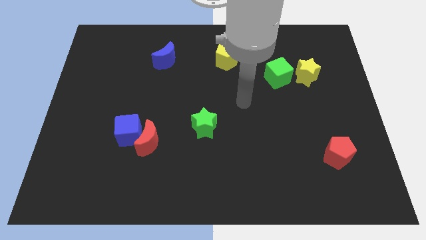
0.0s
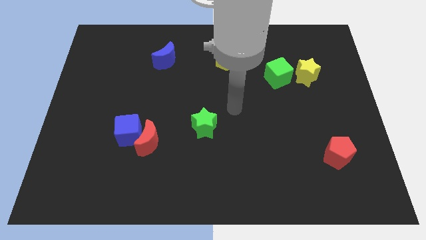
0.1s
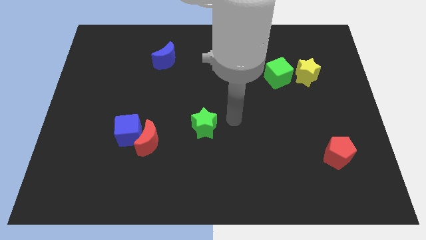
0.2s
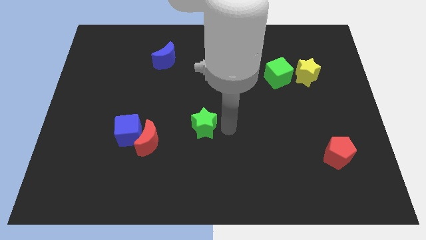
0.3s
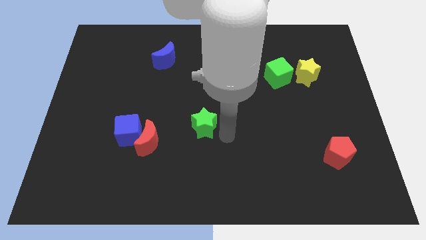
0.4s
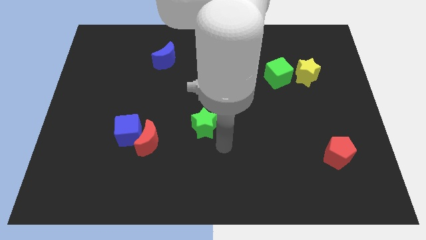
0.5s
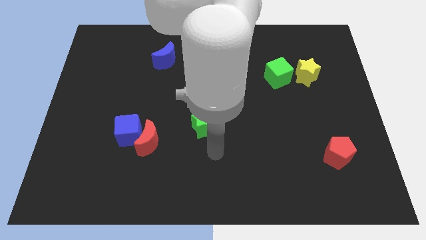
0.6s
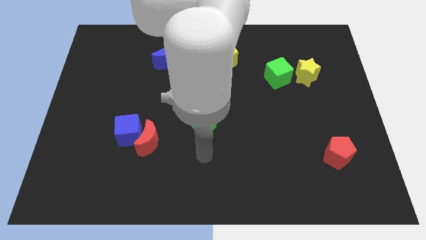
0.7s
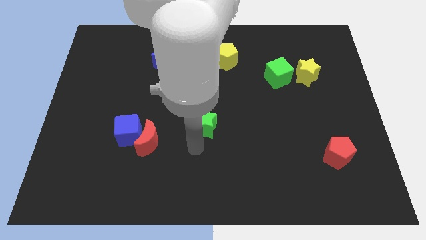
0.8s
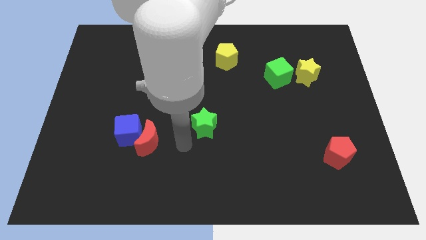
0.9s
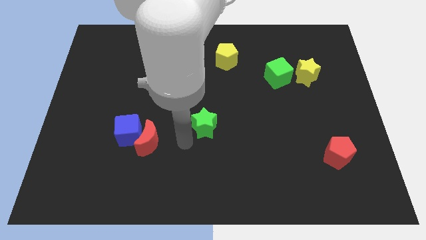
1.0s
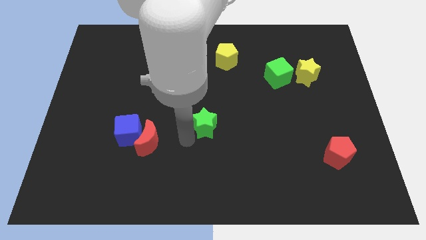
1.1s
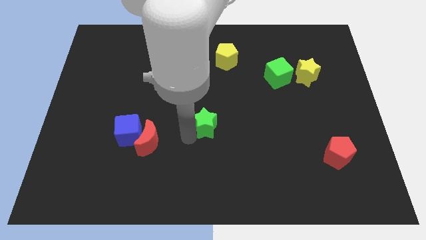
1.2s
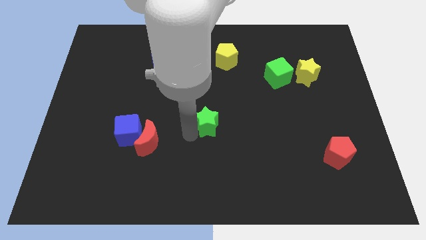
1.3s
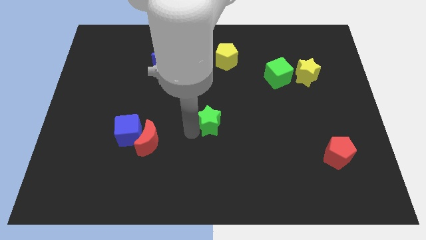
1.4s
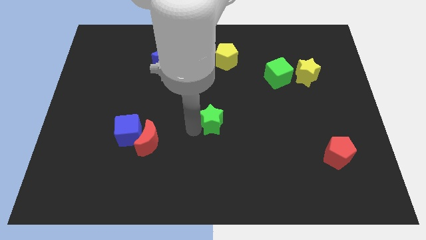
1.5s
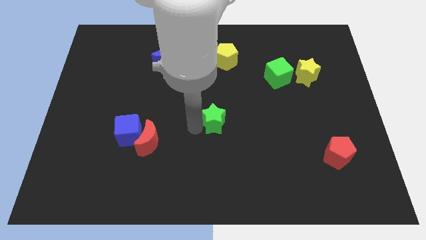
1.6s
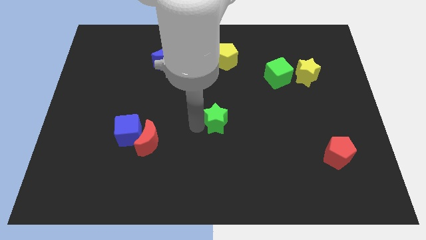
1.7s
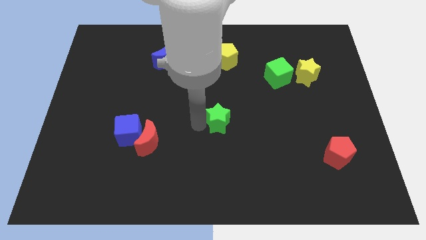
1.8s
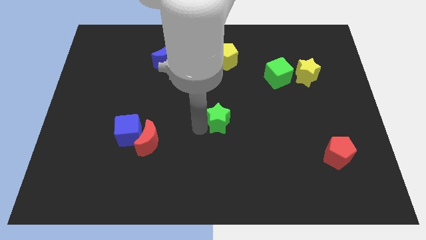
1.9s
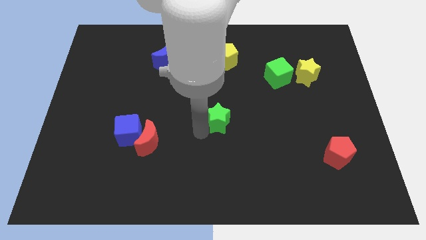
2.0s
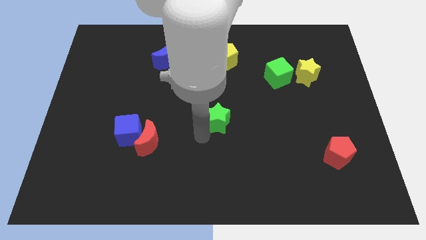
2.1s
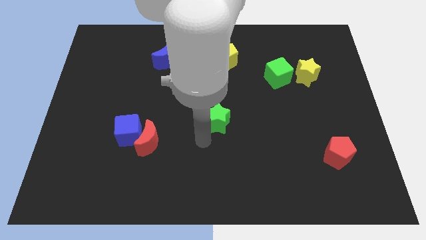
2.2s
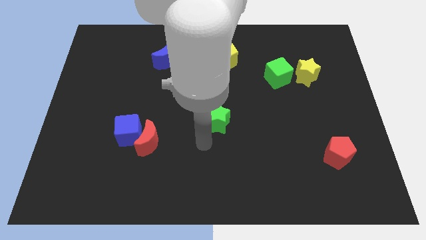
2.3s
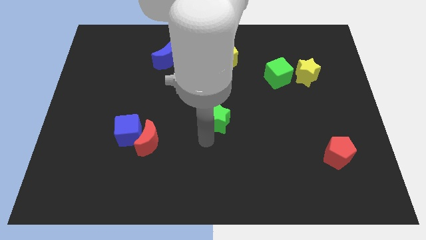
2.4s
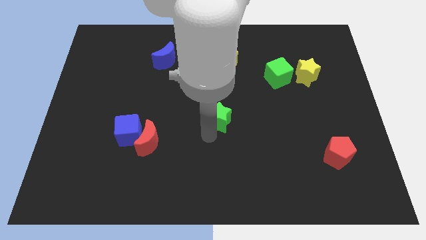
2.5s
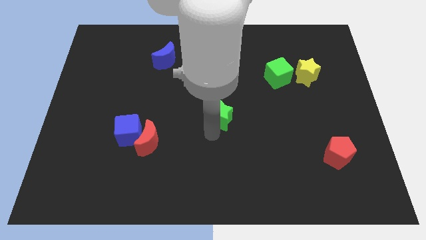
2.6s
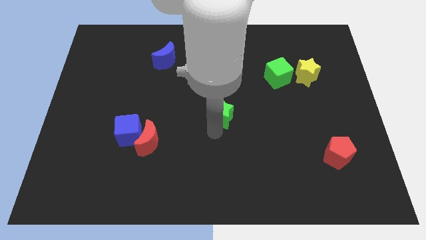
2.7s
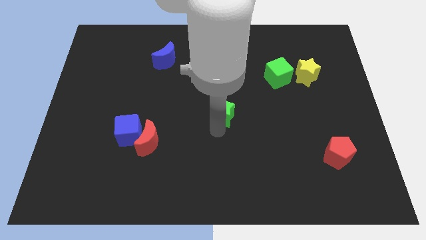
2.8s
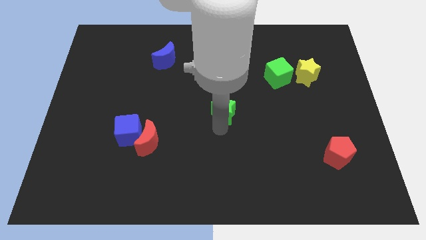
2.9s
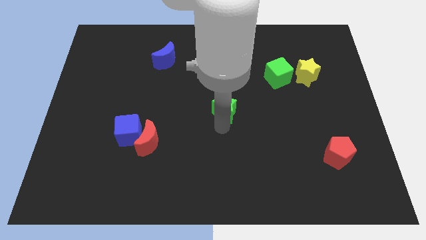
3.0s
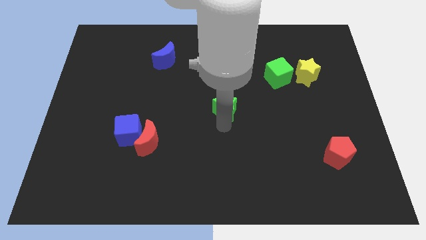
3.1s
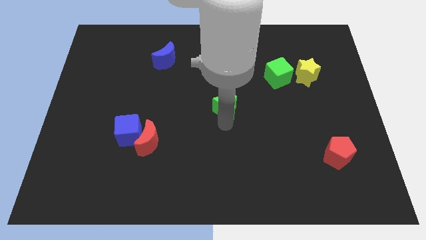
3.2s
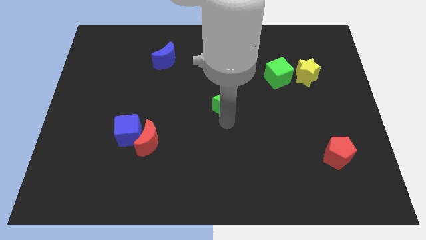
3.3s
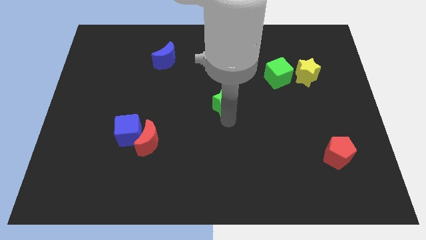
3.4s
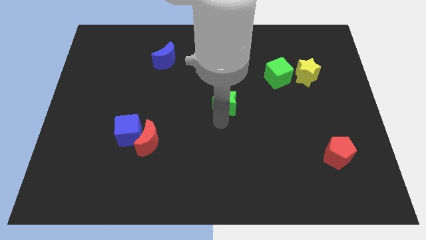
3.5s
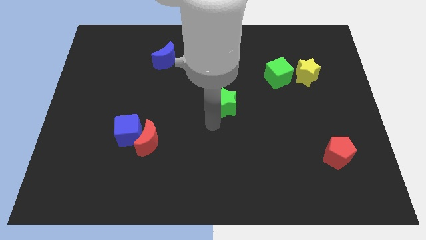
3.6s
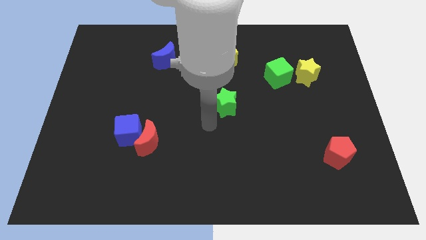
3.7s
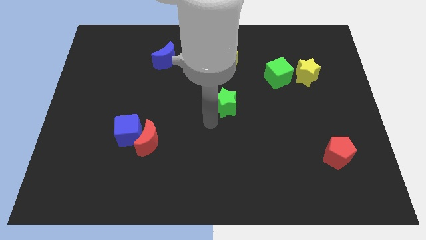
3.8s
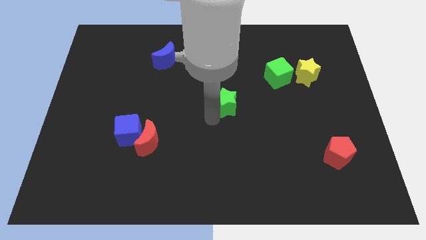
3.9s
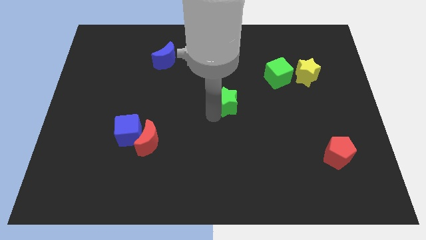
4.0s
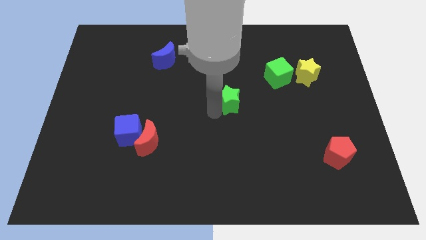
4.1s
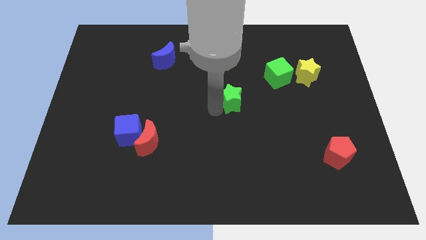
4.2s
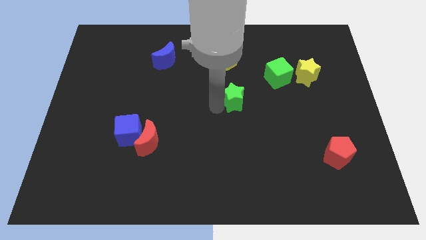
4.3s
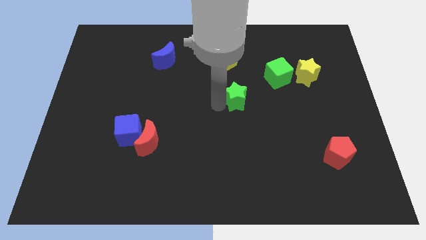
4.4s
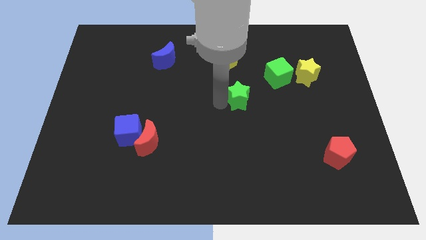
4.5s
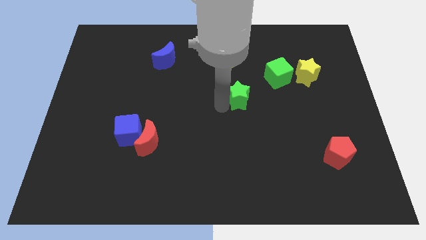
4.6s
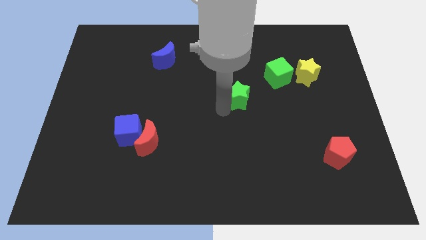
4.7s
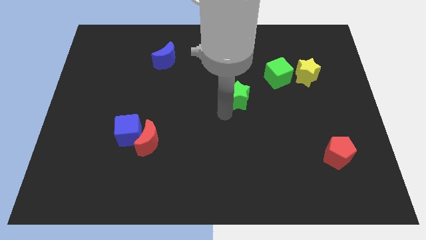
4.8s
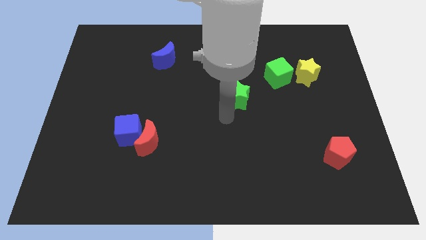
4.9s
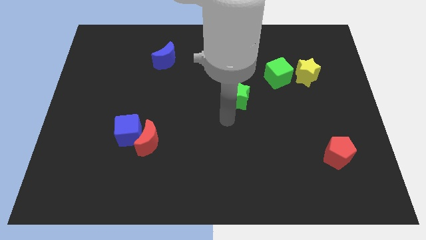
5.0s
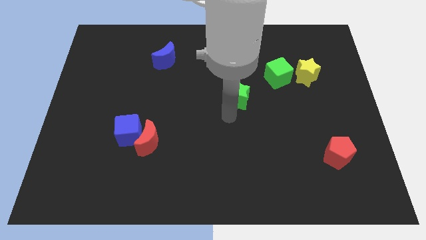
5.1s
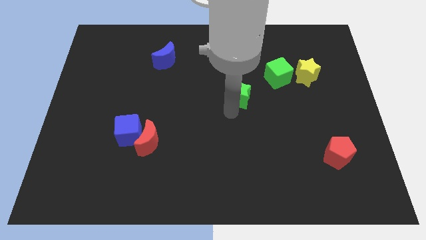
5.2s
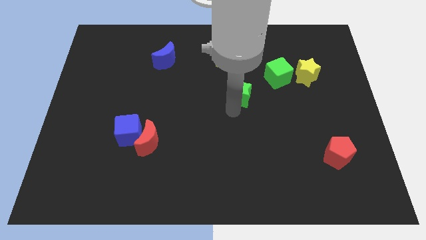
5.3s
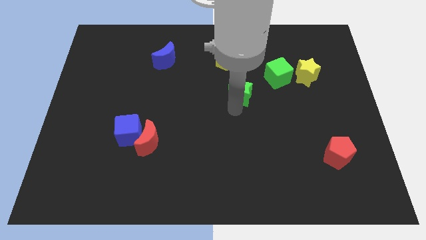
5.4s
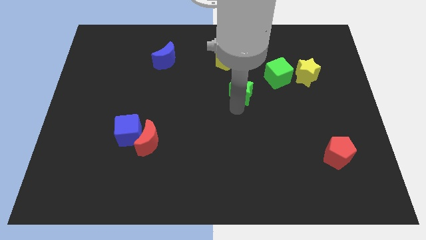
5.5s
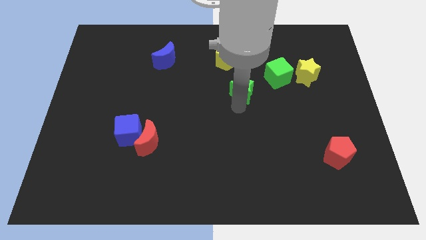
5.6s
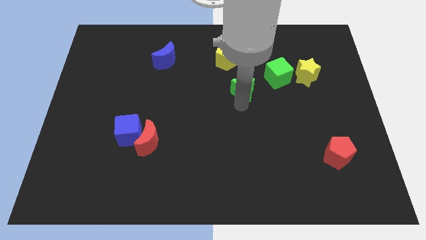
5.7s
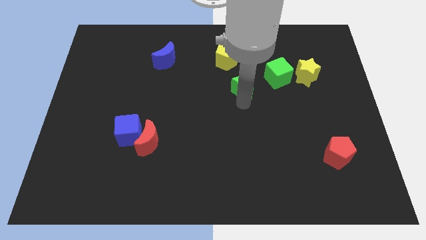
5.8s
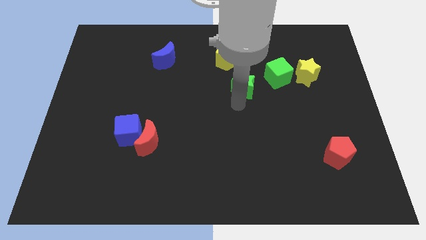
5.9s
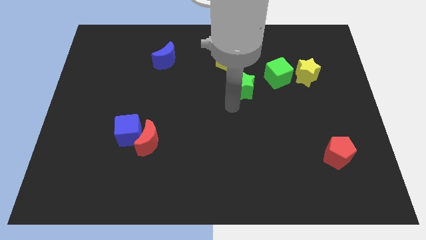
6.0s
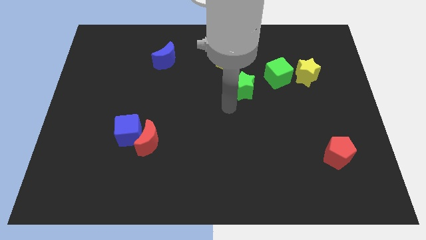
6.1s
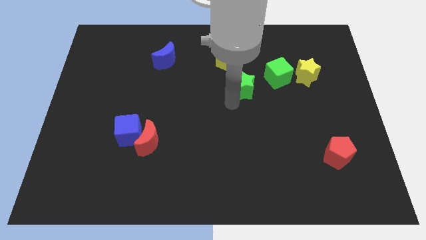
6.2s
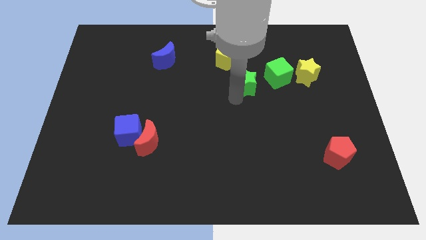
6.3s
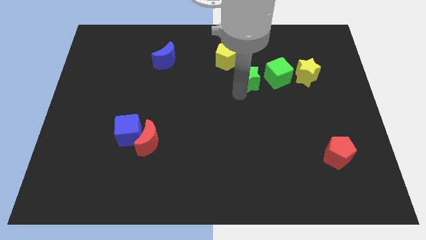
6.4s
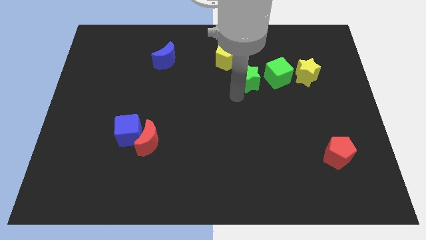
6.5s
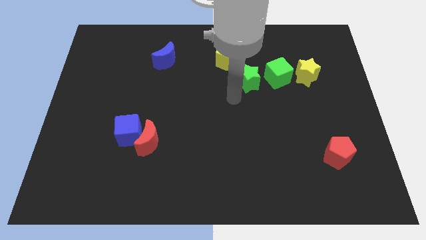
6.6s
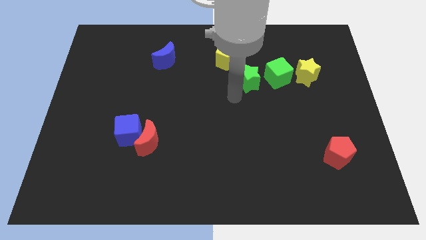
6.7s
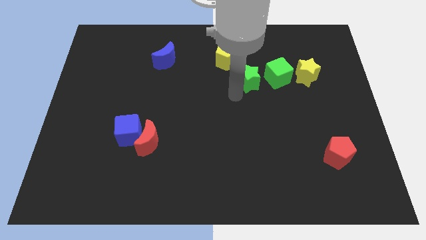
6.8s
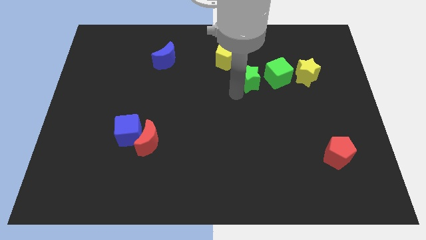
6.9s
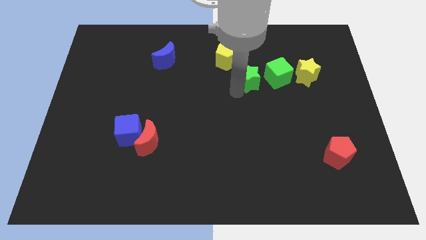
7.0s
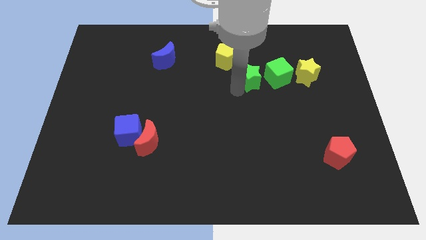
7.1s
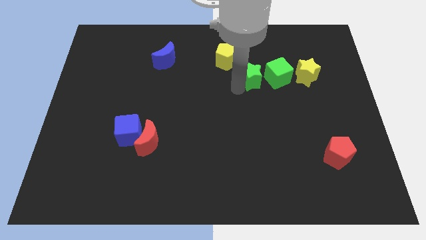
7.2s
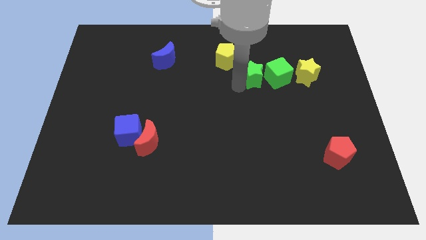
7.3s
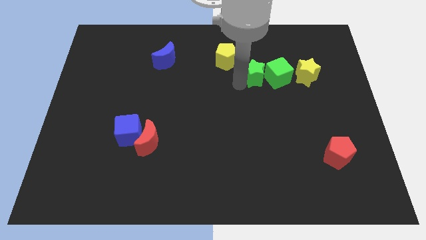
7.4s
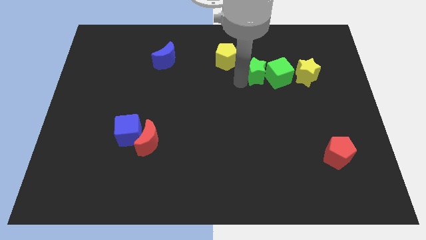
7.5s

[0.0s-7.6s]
slide the green star up and to the right

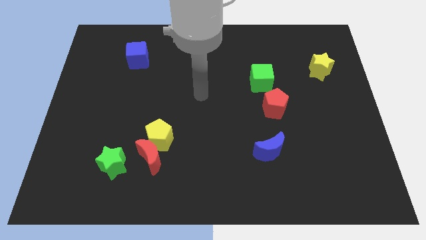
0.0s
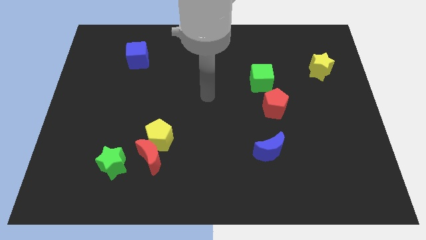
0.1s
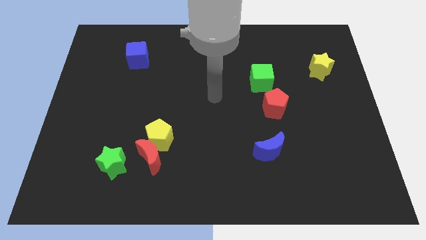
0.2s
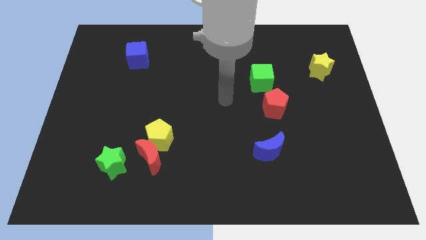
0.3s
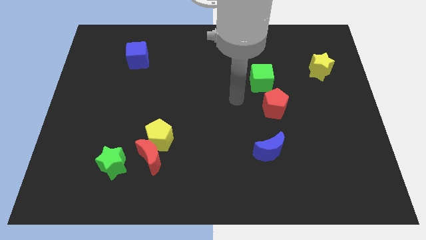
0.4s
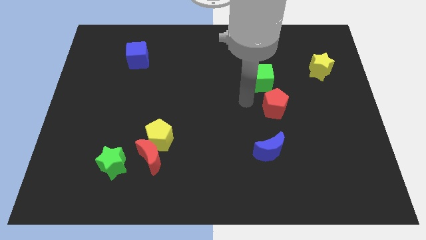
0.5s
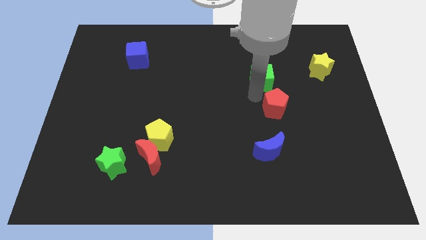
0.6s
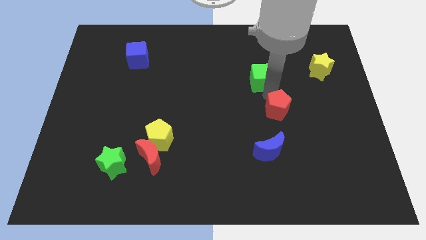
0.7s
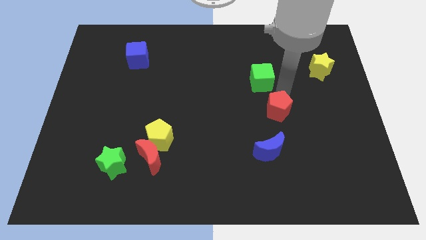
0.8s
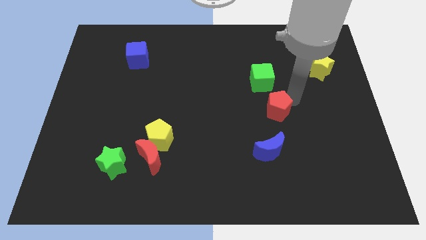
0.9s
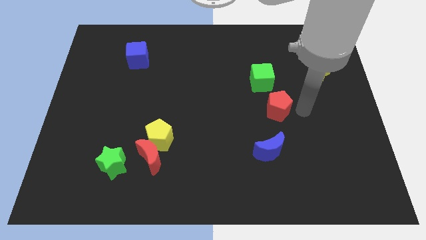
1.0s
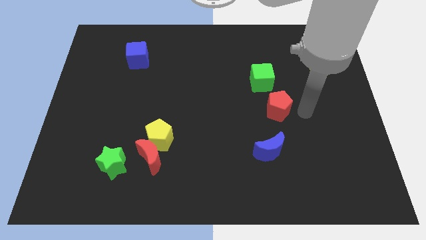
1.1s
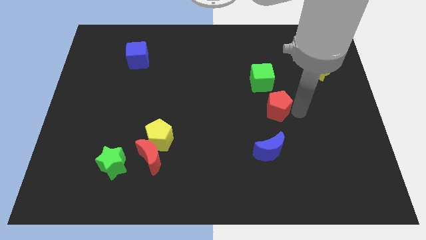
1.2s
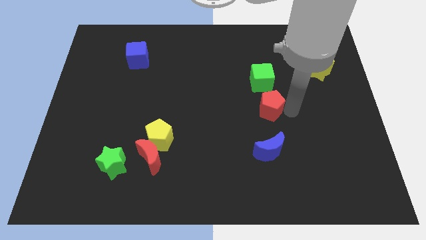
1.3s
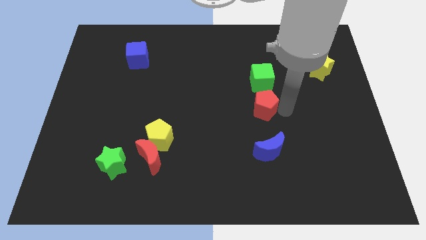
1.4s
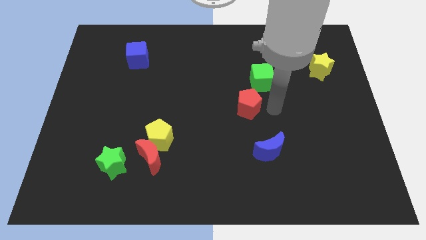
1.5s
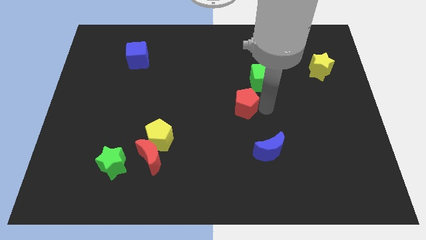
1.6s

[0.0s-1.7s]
slide the red pentagon left somewhat
